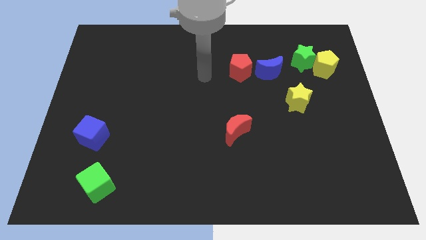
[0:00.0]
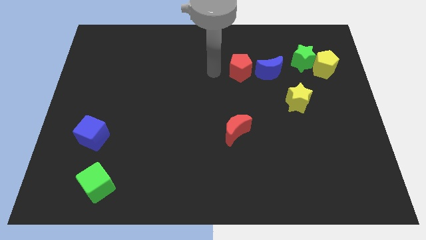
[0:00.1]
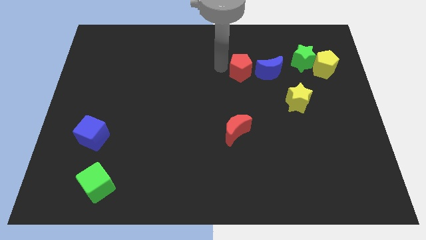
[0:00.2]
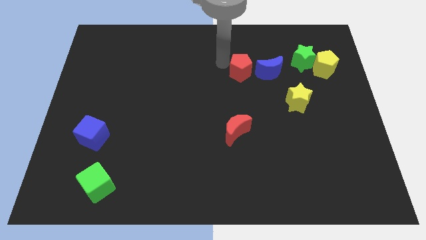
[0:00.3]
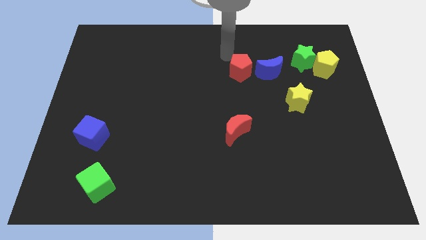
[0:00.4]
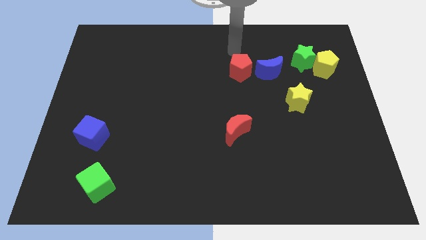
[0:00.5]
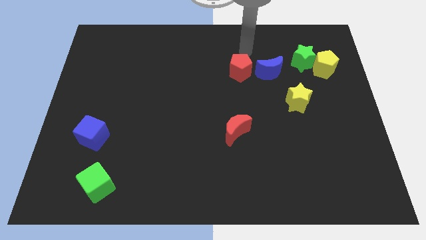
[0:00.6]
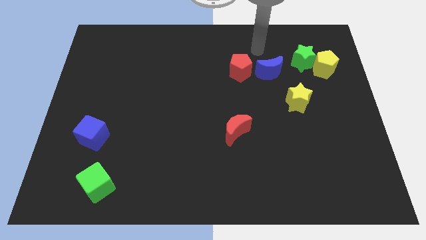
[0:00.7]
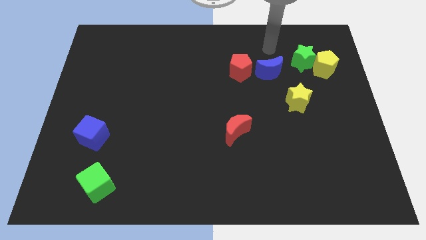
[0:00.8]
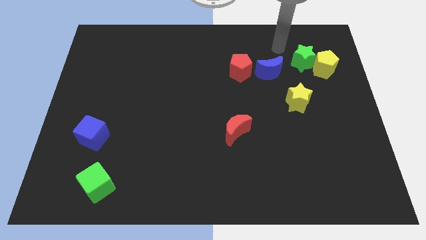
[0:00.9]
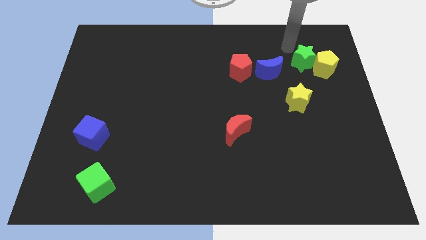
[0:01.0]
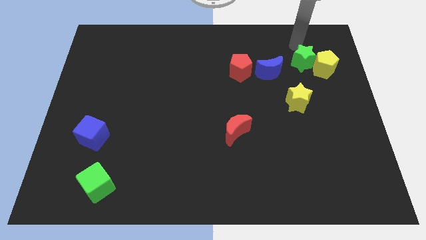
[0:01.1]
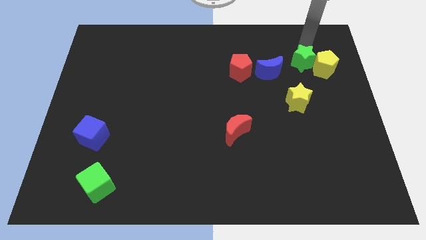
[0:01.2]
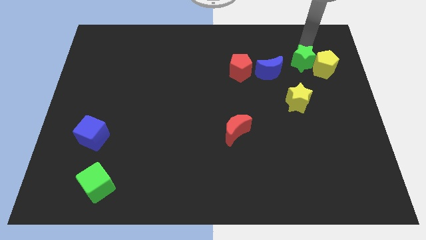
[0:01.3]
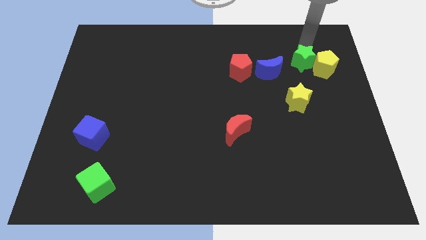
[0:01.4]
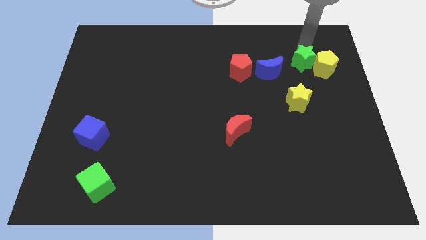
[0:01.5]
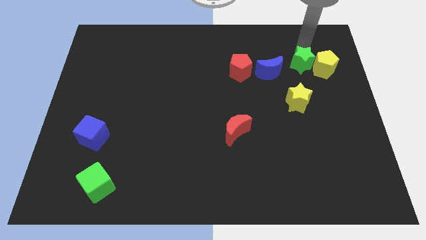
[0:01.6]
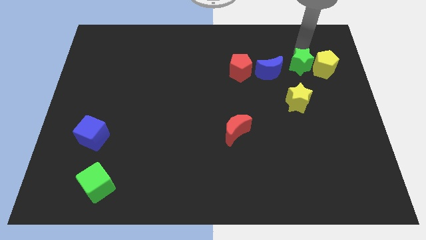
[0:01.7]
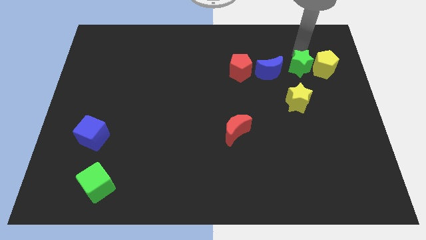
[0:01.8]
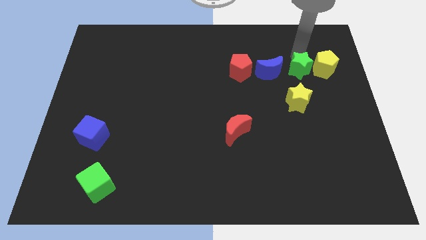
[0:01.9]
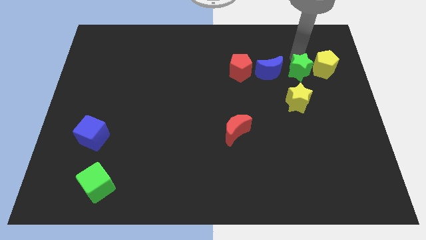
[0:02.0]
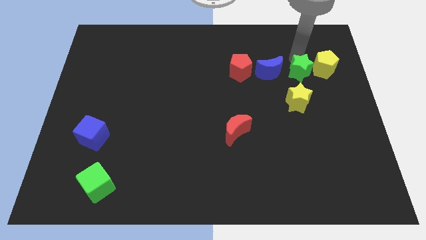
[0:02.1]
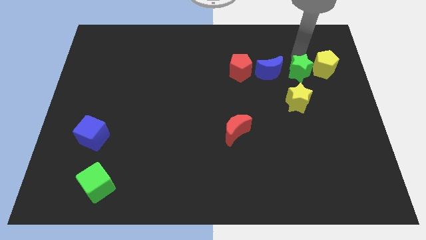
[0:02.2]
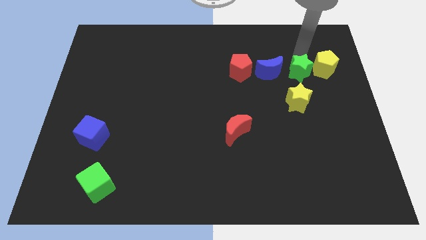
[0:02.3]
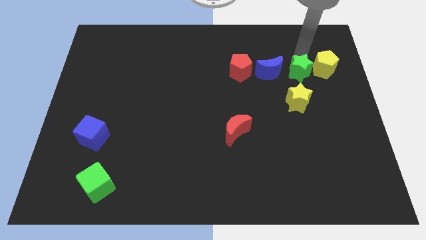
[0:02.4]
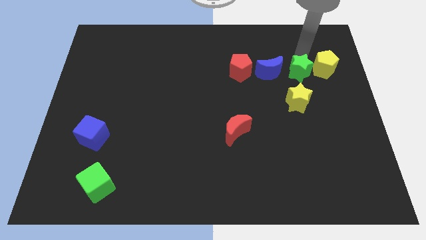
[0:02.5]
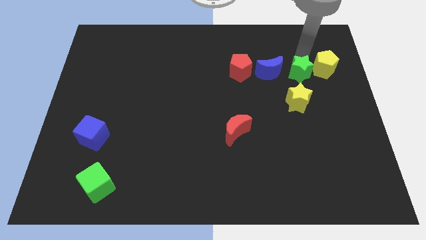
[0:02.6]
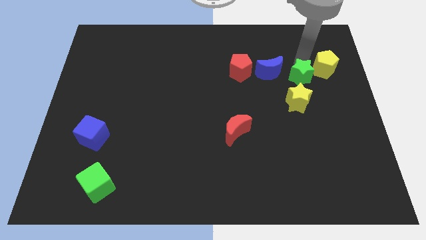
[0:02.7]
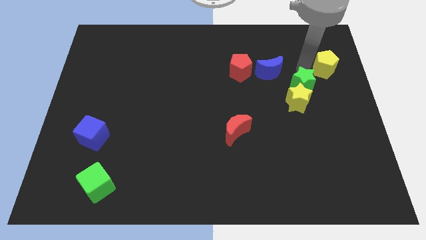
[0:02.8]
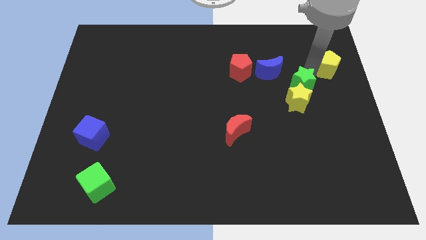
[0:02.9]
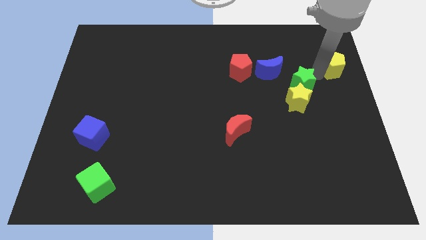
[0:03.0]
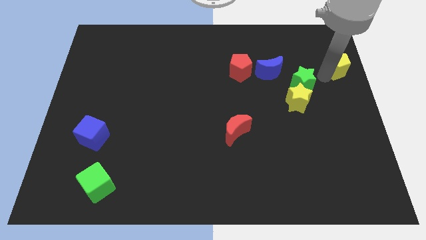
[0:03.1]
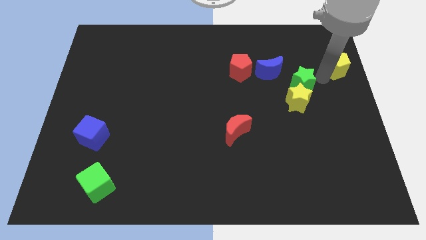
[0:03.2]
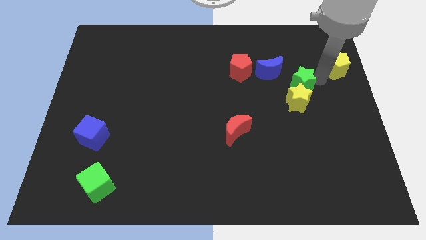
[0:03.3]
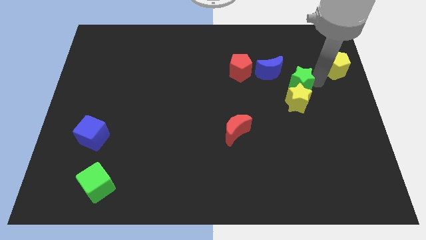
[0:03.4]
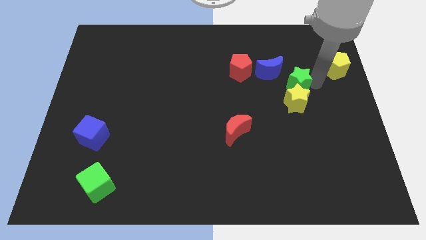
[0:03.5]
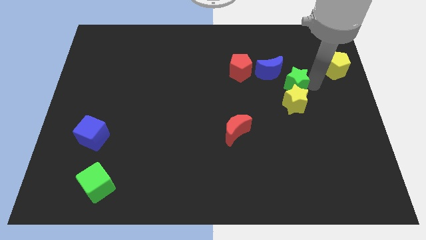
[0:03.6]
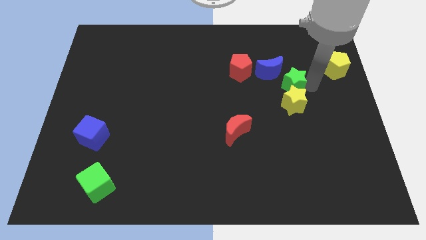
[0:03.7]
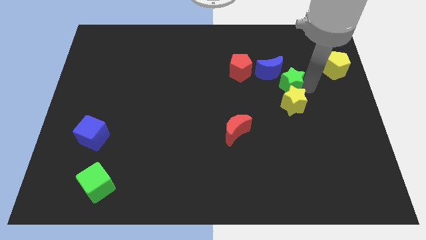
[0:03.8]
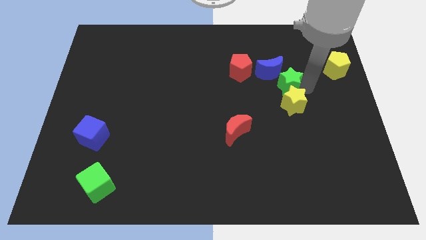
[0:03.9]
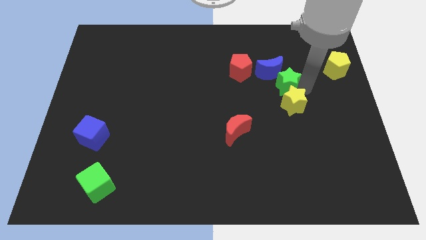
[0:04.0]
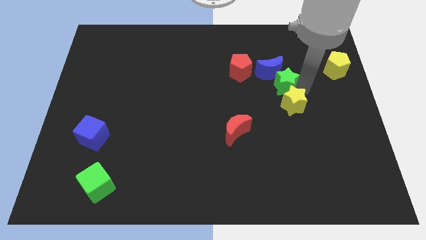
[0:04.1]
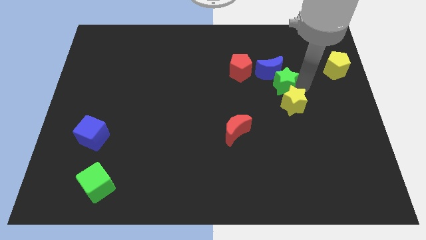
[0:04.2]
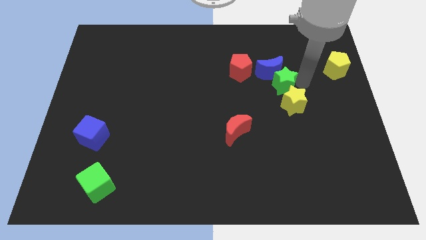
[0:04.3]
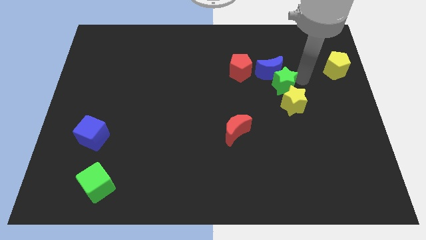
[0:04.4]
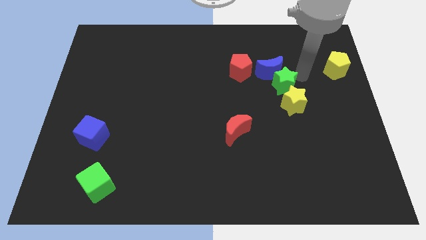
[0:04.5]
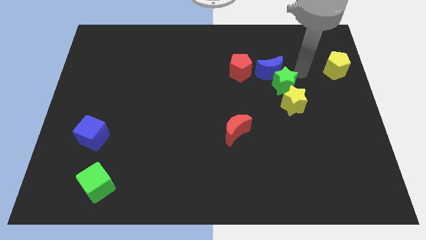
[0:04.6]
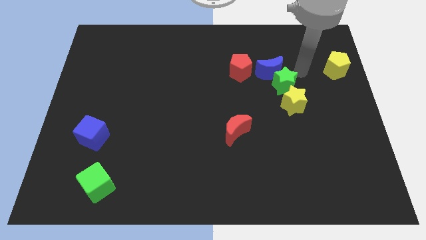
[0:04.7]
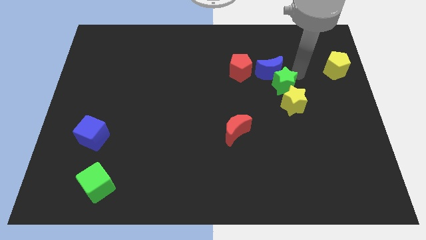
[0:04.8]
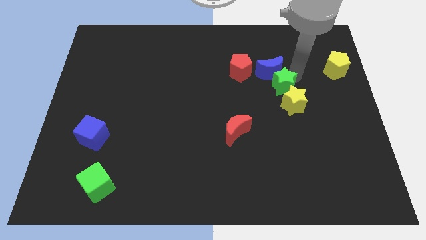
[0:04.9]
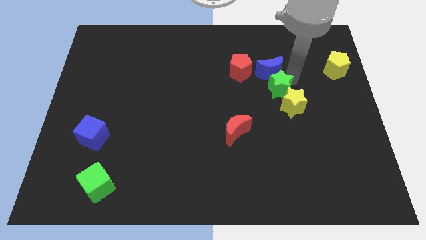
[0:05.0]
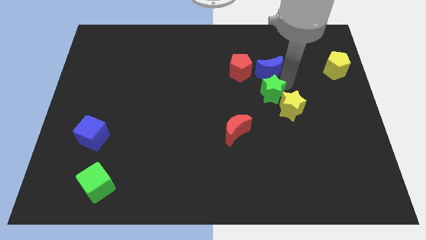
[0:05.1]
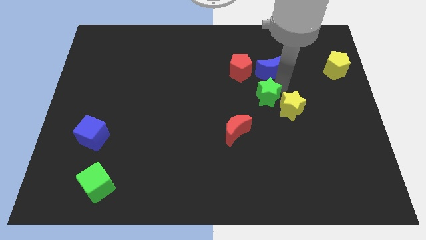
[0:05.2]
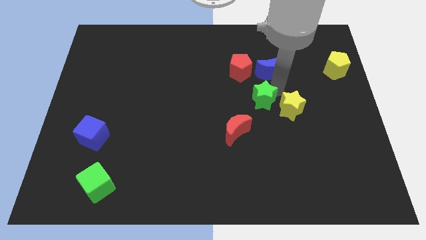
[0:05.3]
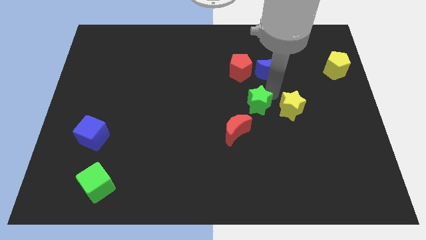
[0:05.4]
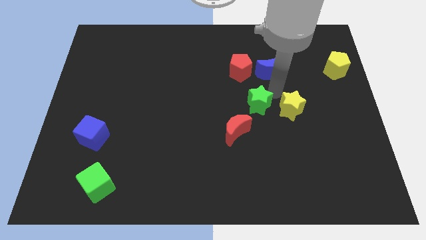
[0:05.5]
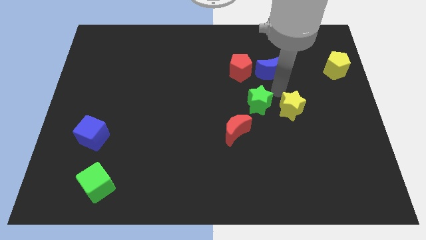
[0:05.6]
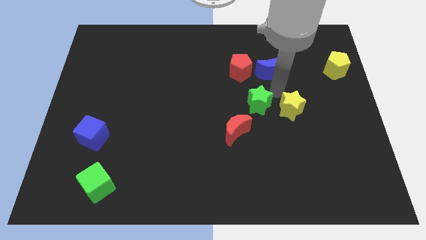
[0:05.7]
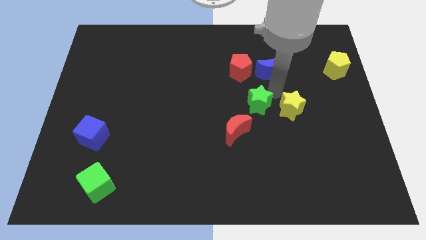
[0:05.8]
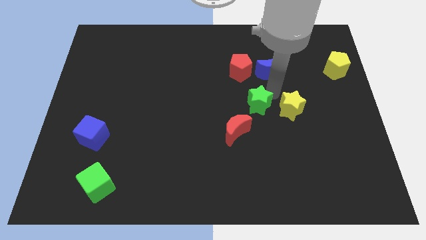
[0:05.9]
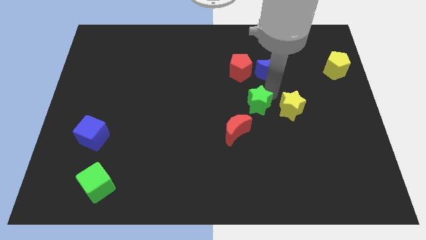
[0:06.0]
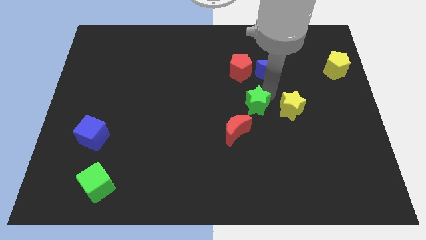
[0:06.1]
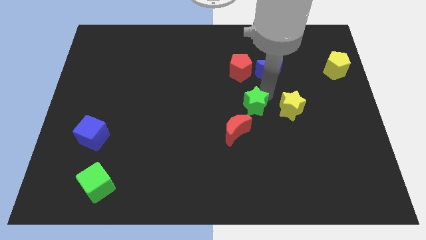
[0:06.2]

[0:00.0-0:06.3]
push the green star downwards and left diagonally

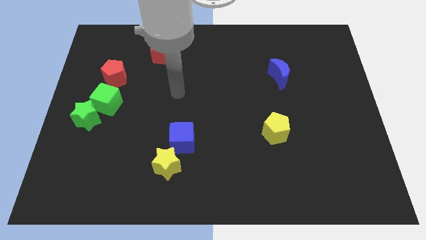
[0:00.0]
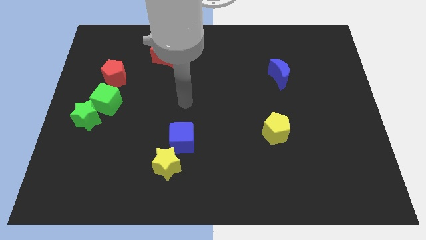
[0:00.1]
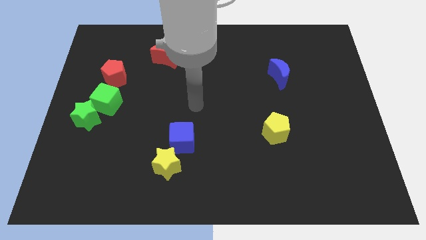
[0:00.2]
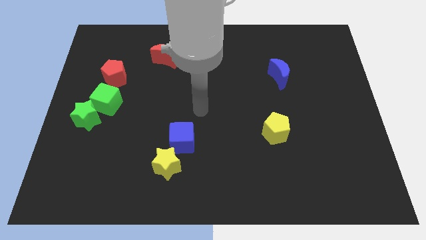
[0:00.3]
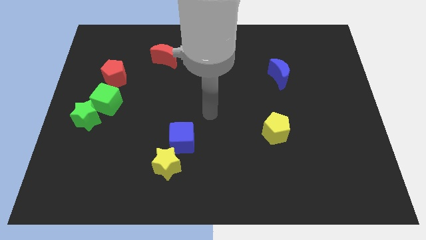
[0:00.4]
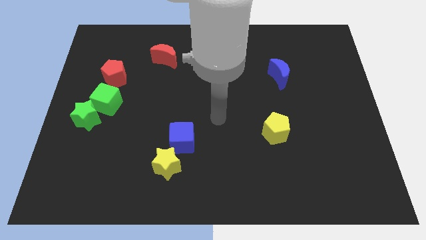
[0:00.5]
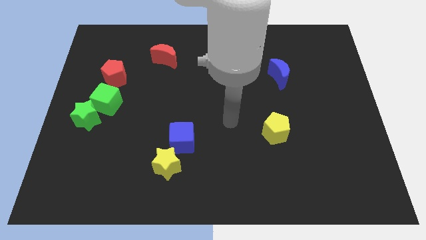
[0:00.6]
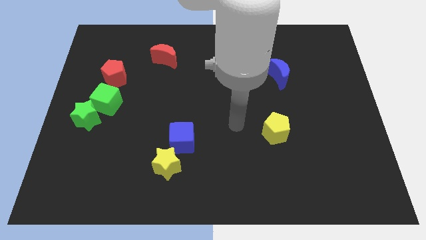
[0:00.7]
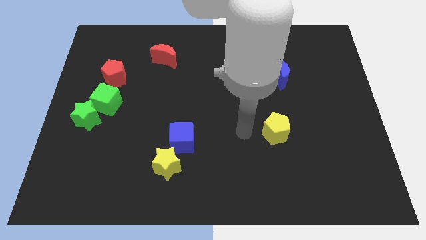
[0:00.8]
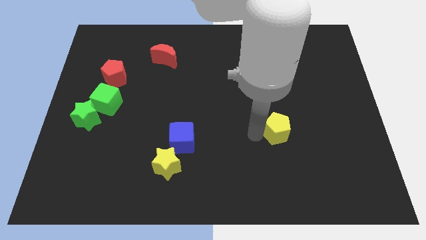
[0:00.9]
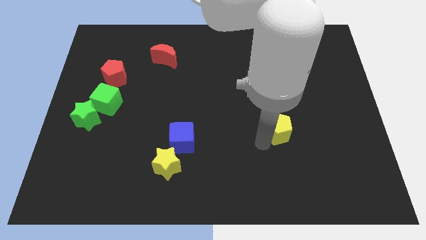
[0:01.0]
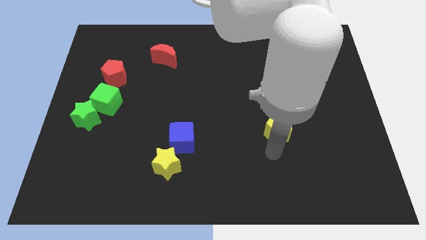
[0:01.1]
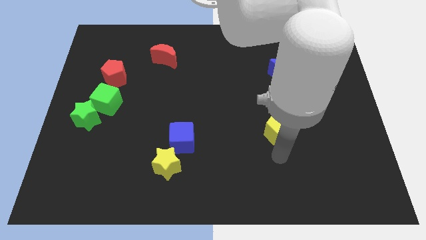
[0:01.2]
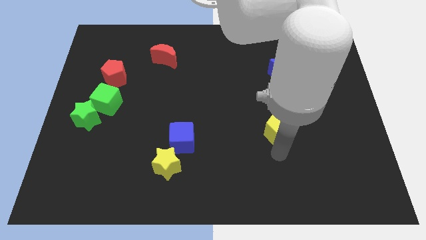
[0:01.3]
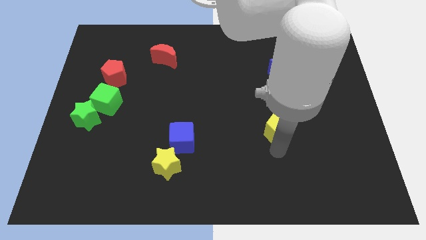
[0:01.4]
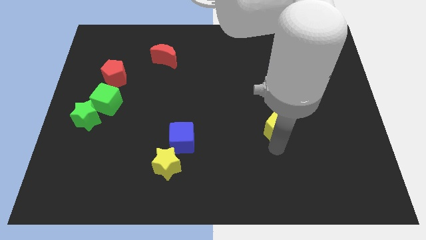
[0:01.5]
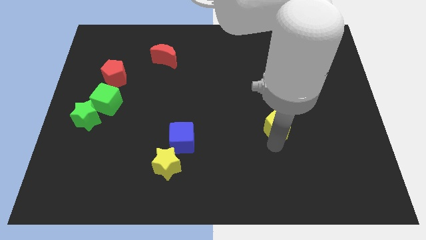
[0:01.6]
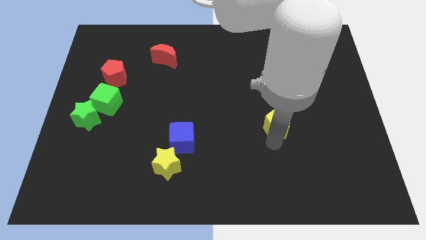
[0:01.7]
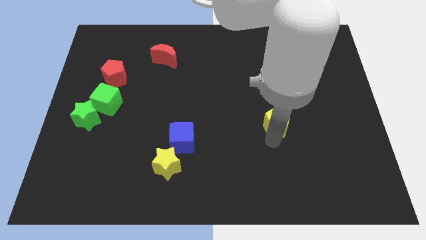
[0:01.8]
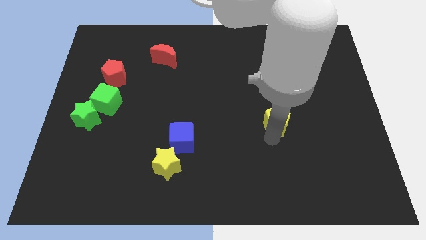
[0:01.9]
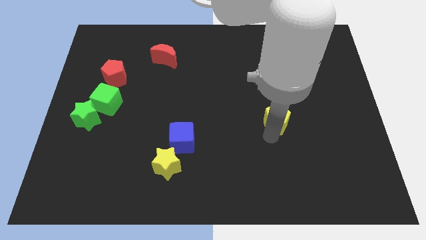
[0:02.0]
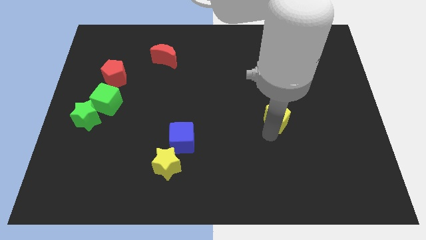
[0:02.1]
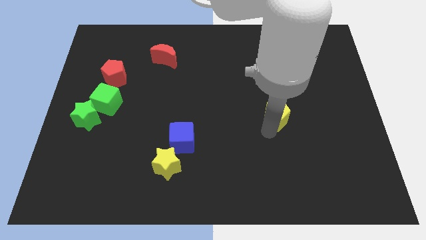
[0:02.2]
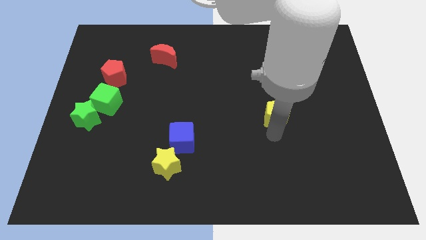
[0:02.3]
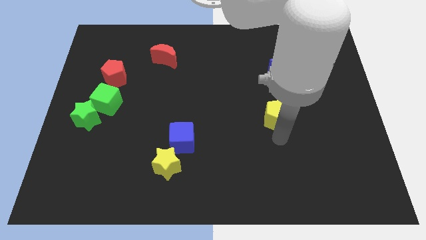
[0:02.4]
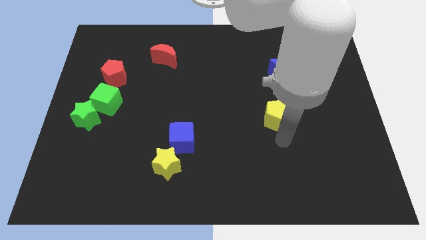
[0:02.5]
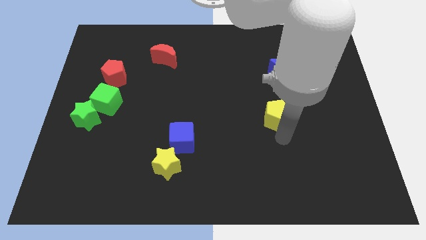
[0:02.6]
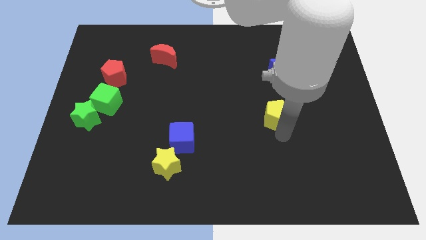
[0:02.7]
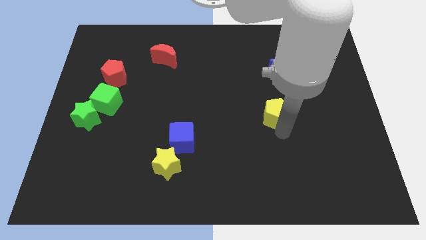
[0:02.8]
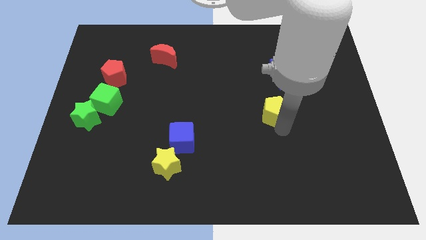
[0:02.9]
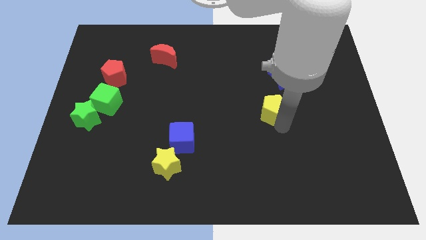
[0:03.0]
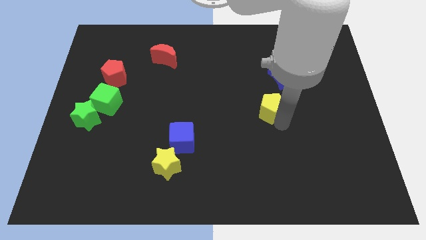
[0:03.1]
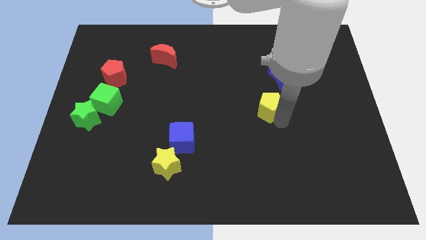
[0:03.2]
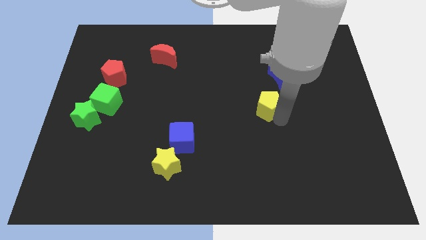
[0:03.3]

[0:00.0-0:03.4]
slightly push the yellow pentagon upwards
